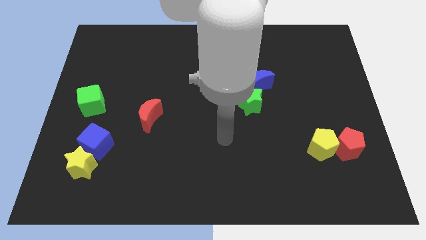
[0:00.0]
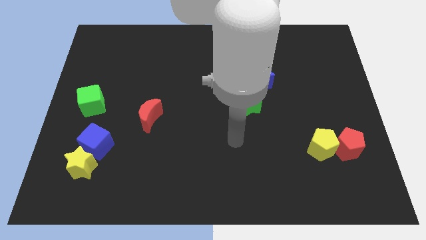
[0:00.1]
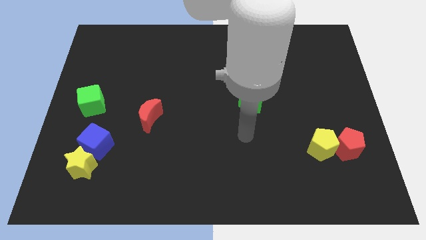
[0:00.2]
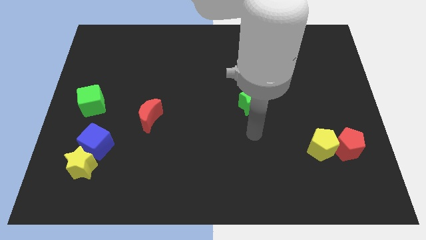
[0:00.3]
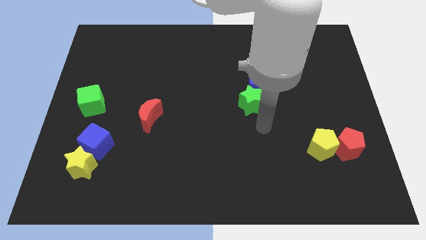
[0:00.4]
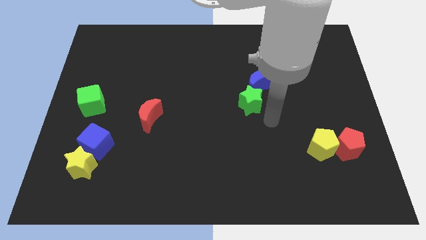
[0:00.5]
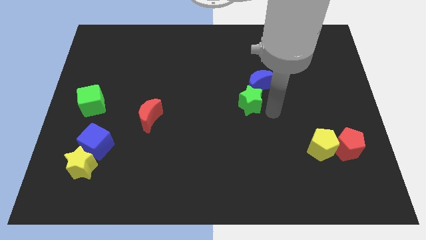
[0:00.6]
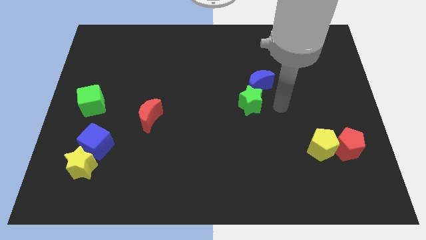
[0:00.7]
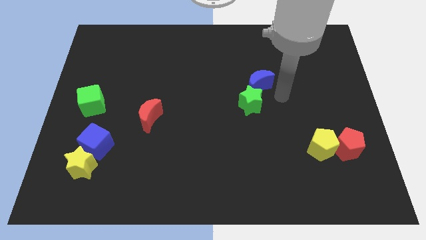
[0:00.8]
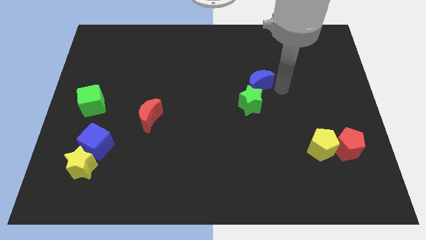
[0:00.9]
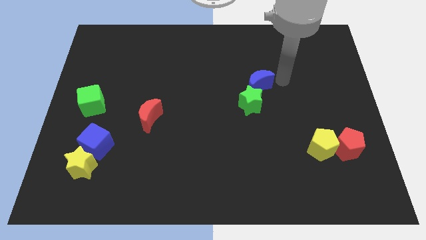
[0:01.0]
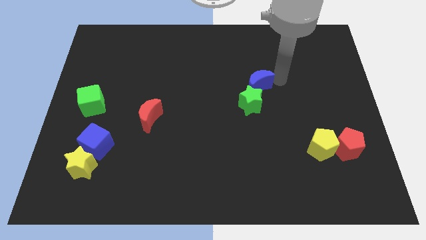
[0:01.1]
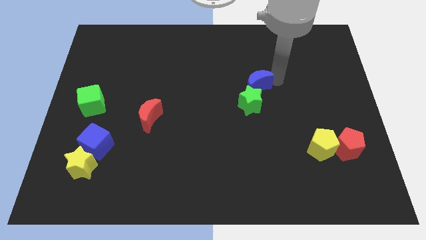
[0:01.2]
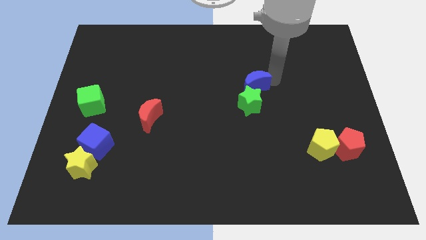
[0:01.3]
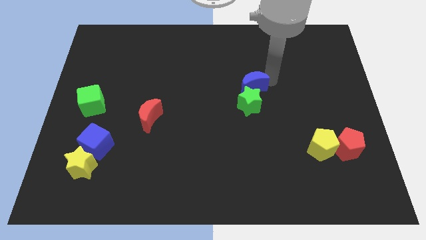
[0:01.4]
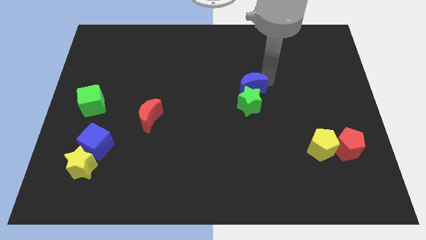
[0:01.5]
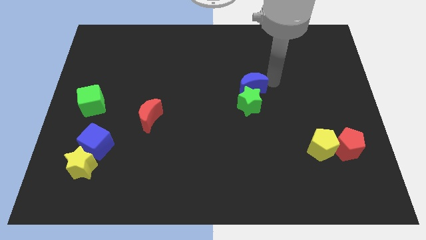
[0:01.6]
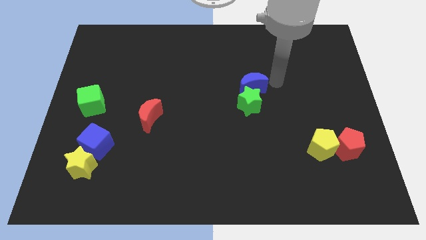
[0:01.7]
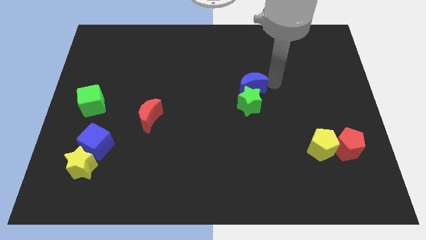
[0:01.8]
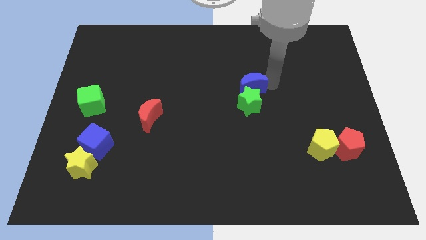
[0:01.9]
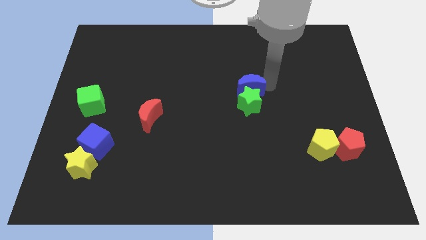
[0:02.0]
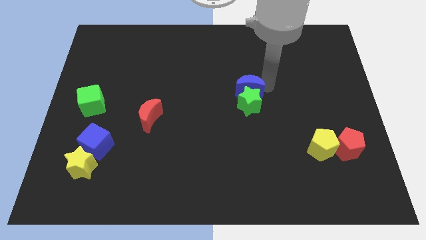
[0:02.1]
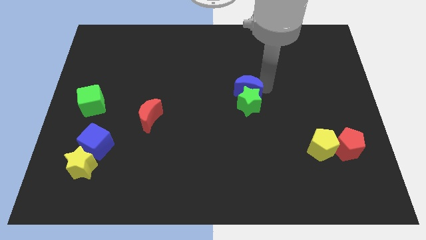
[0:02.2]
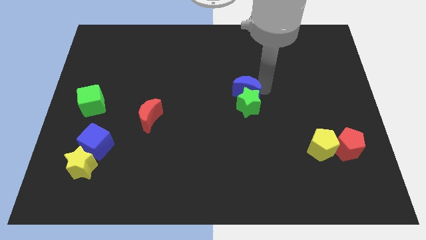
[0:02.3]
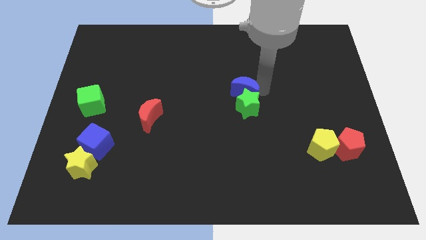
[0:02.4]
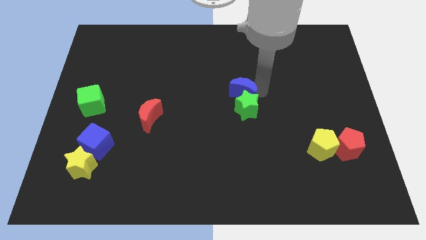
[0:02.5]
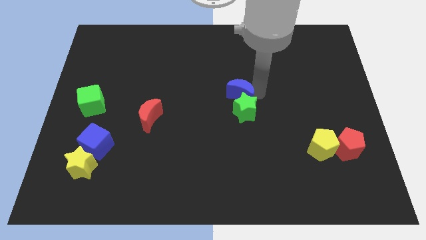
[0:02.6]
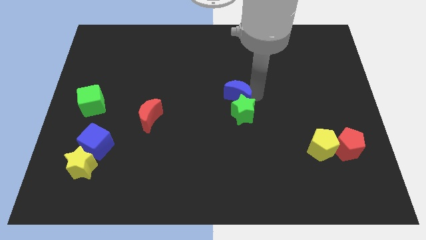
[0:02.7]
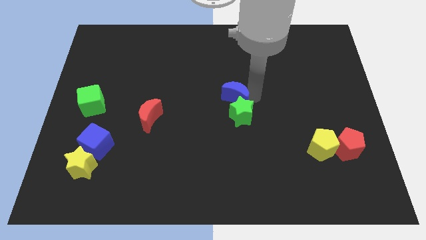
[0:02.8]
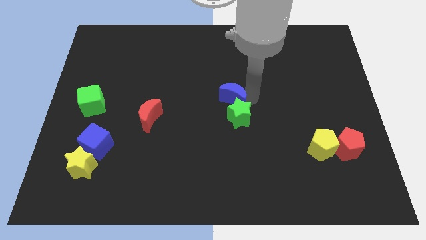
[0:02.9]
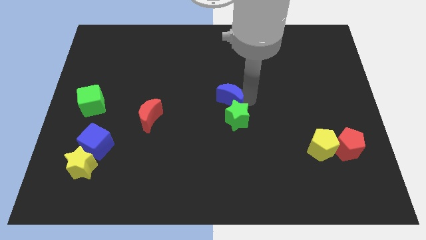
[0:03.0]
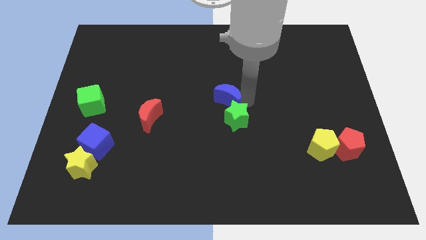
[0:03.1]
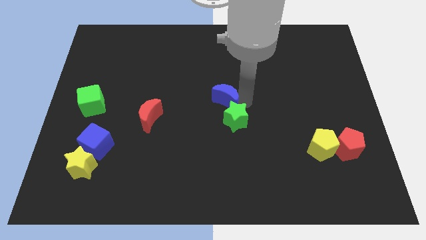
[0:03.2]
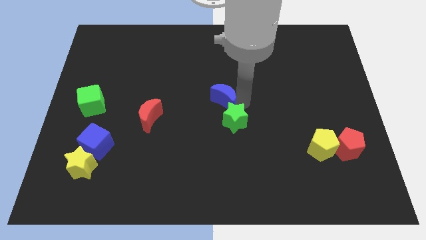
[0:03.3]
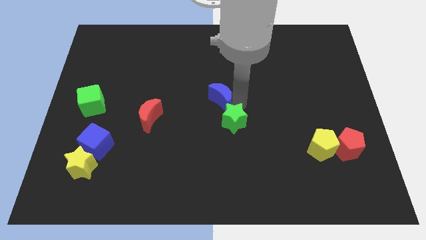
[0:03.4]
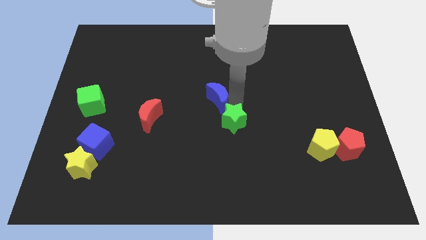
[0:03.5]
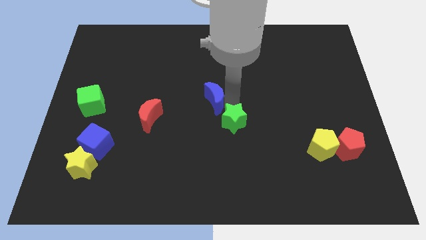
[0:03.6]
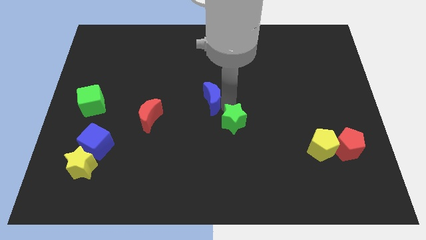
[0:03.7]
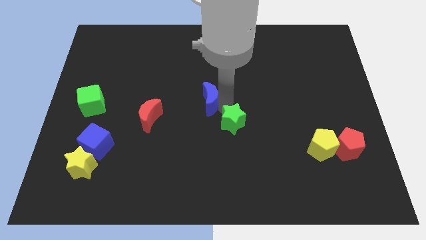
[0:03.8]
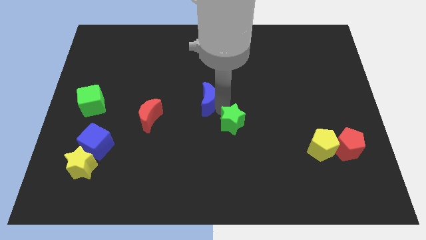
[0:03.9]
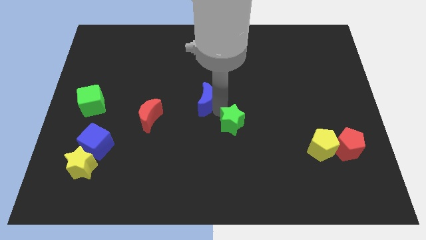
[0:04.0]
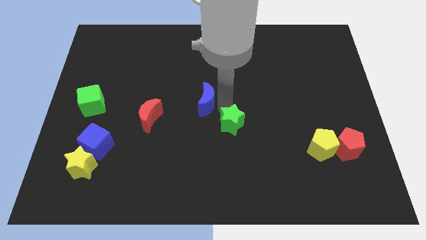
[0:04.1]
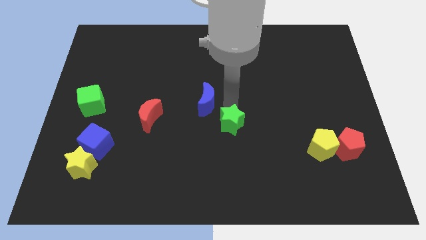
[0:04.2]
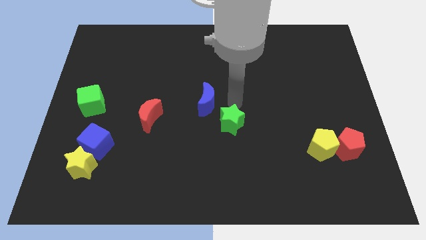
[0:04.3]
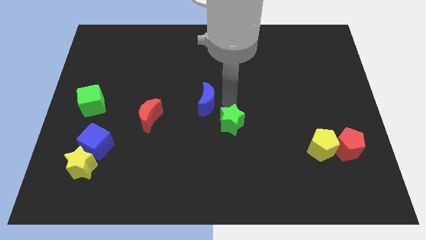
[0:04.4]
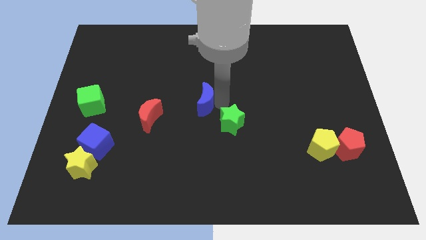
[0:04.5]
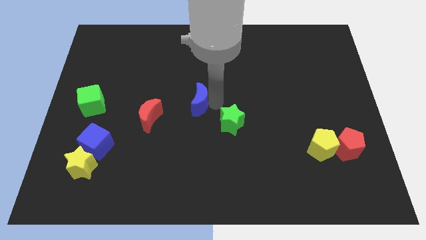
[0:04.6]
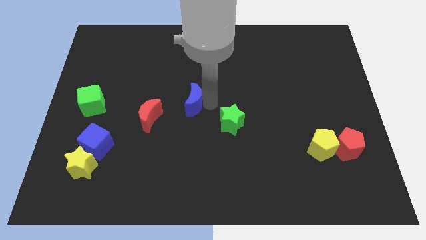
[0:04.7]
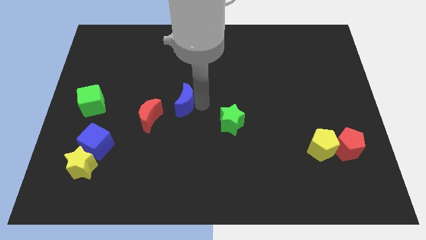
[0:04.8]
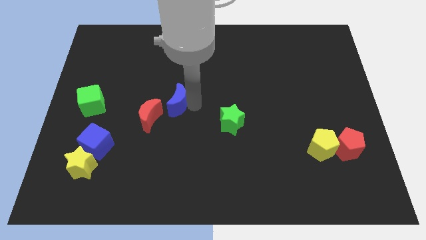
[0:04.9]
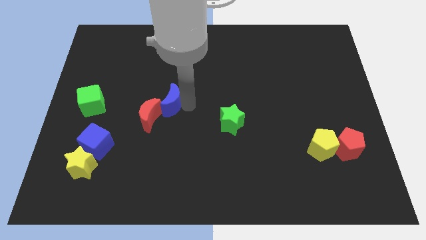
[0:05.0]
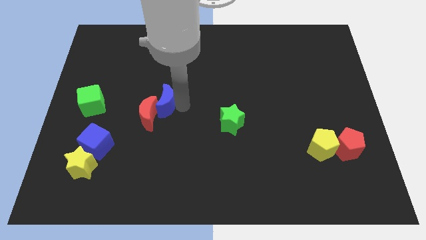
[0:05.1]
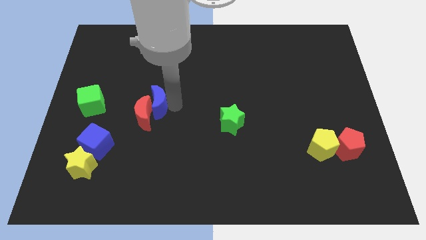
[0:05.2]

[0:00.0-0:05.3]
move the blue moon to the right of the green cube

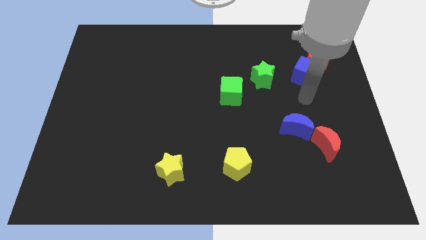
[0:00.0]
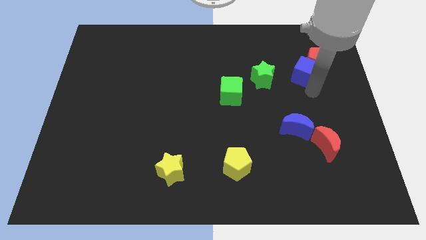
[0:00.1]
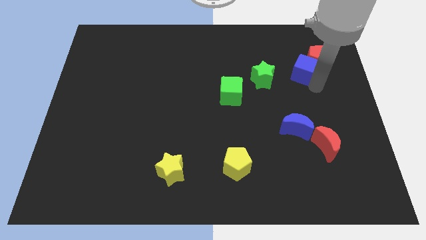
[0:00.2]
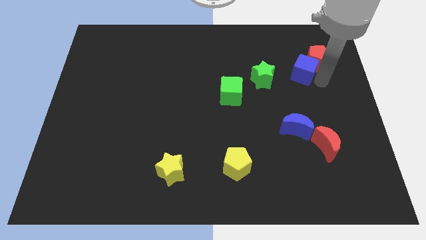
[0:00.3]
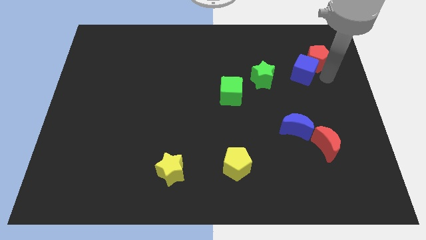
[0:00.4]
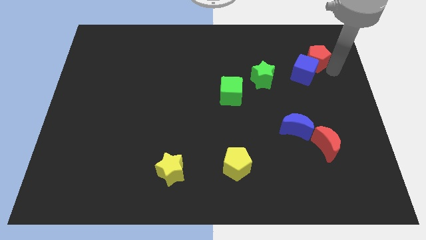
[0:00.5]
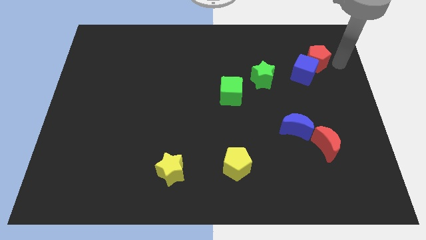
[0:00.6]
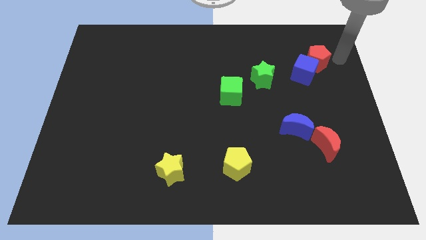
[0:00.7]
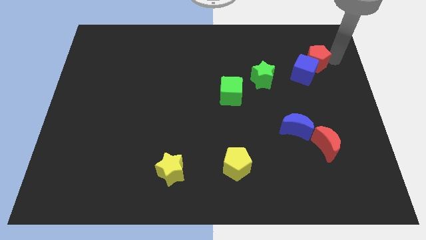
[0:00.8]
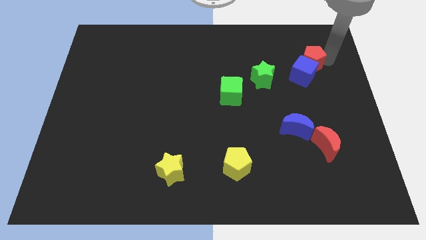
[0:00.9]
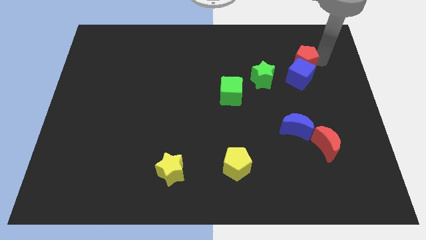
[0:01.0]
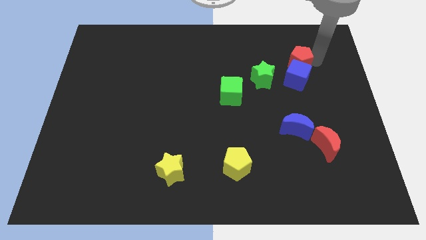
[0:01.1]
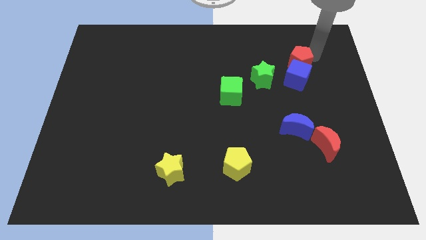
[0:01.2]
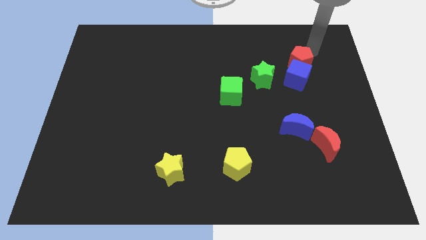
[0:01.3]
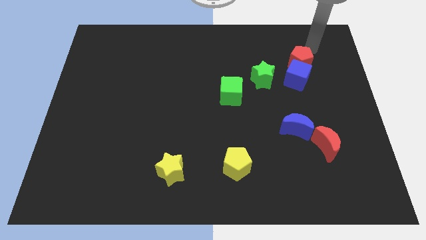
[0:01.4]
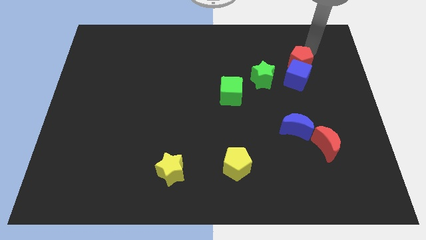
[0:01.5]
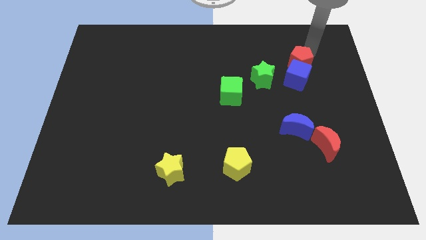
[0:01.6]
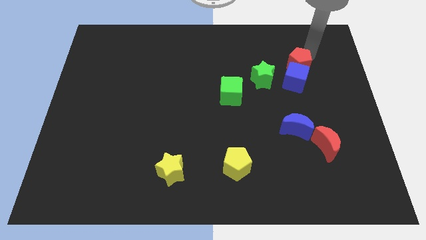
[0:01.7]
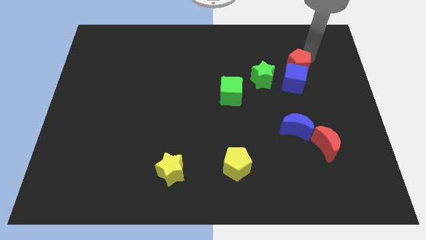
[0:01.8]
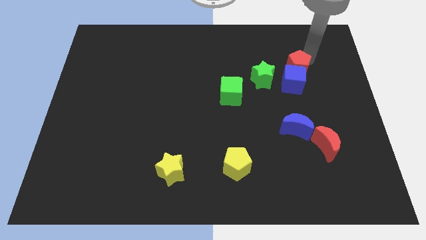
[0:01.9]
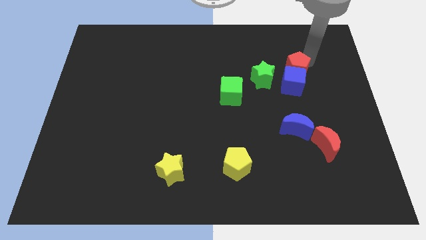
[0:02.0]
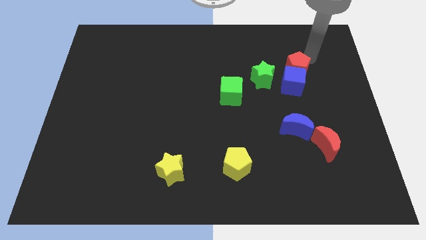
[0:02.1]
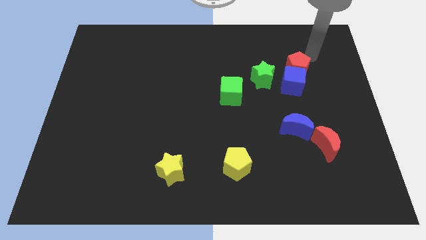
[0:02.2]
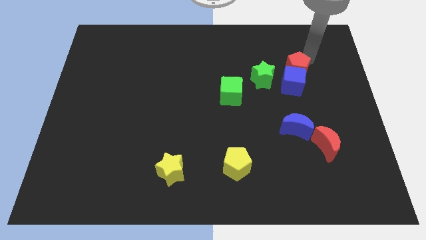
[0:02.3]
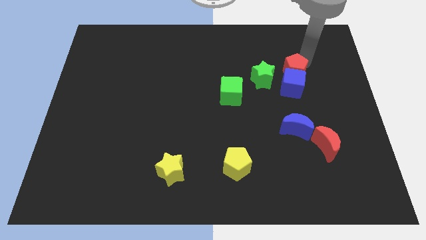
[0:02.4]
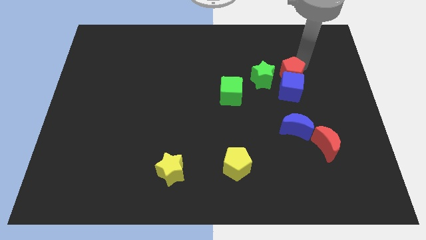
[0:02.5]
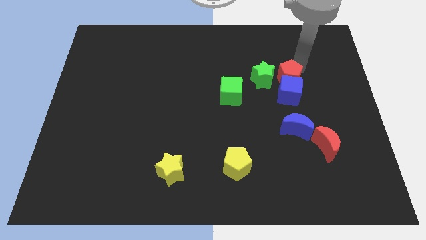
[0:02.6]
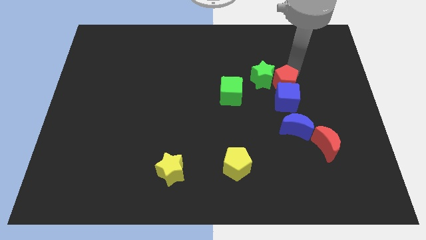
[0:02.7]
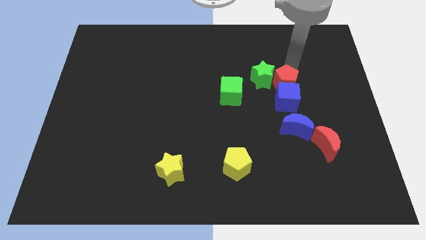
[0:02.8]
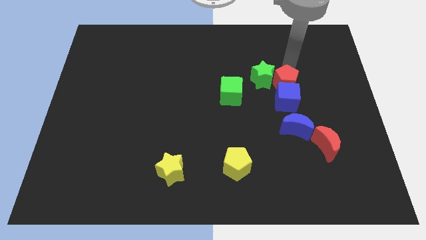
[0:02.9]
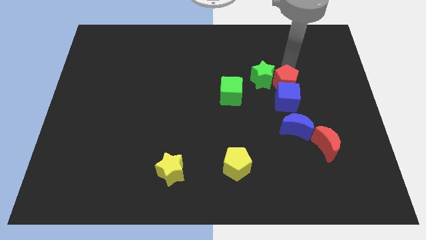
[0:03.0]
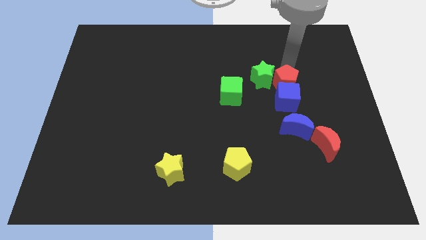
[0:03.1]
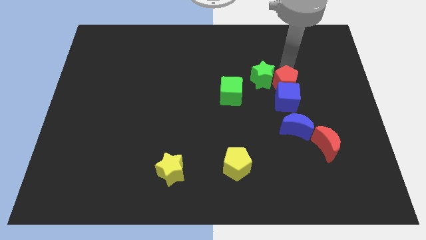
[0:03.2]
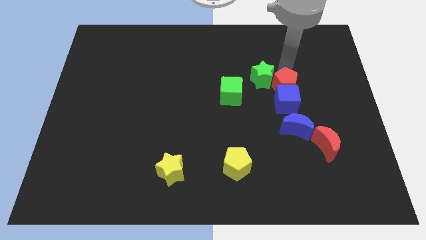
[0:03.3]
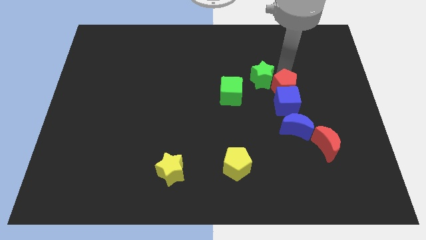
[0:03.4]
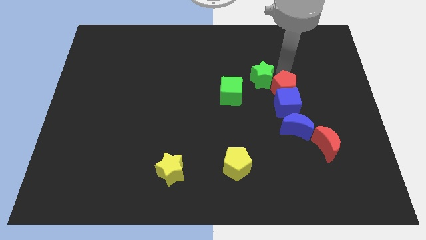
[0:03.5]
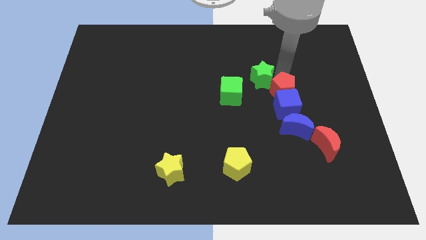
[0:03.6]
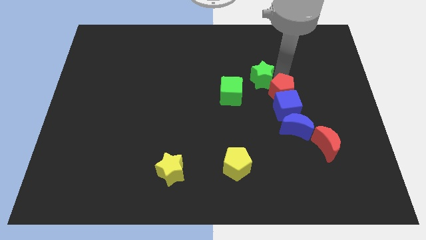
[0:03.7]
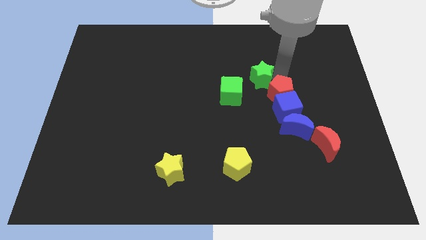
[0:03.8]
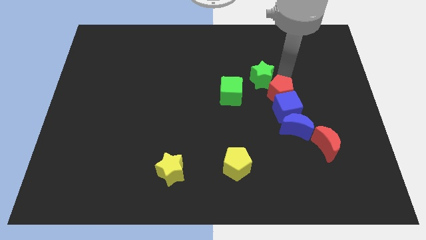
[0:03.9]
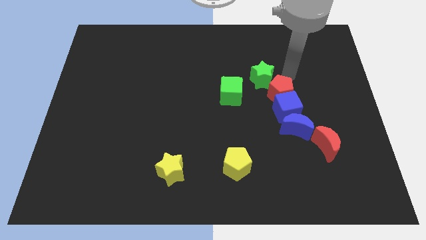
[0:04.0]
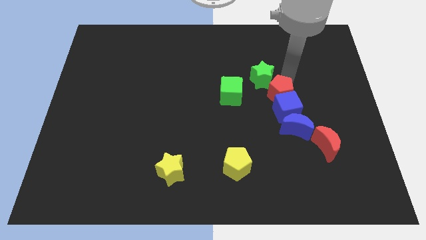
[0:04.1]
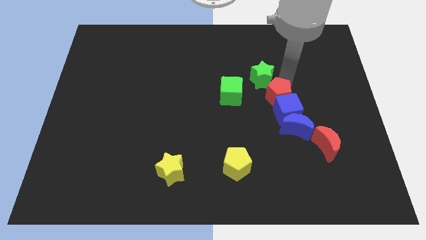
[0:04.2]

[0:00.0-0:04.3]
push the red pentagon diagonally up and to the left of the blue moon
